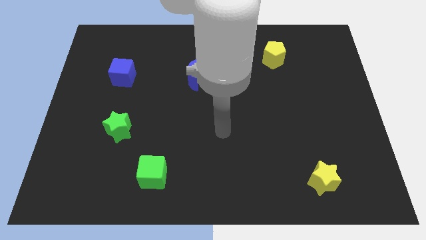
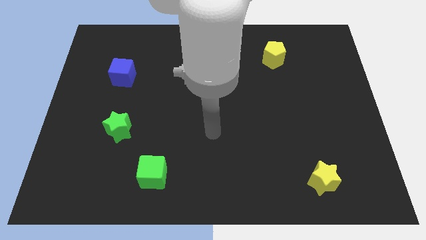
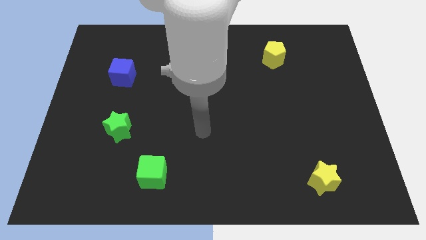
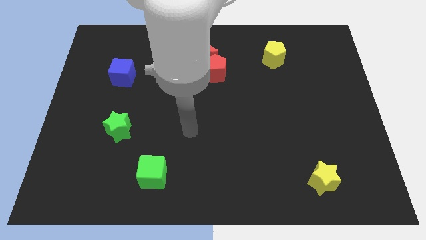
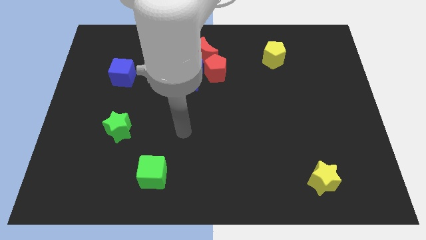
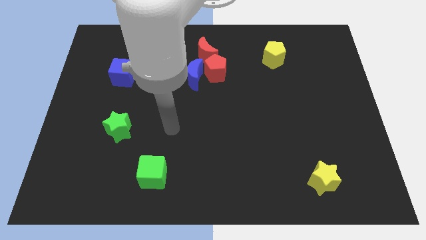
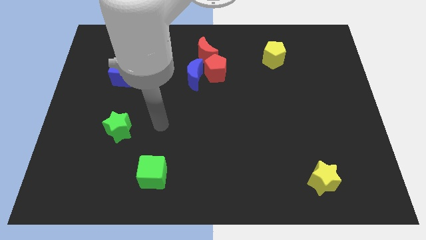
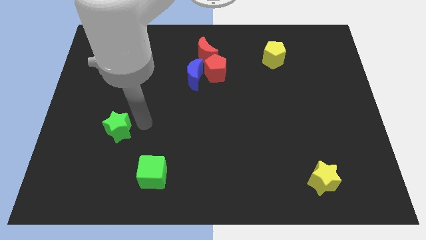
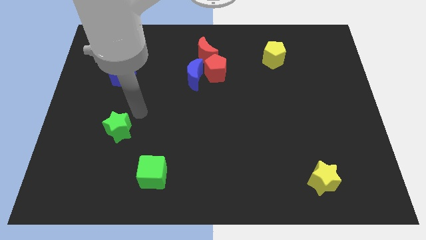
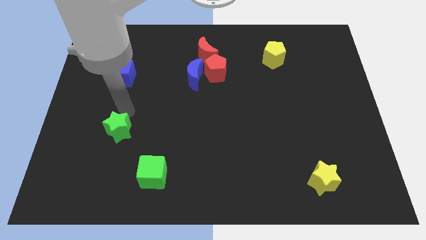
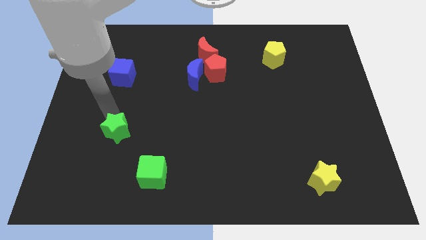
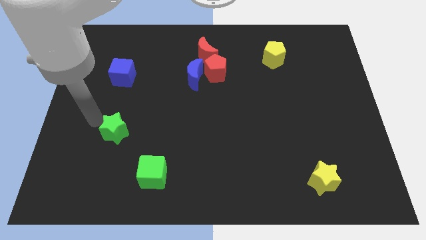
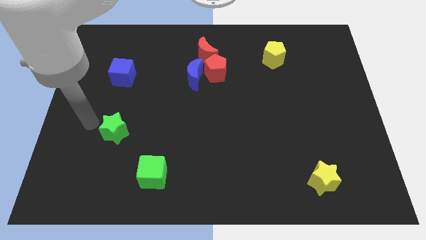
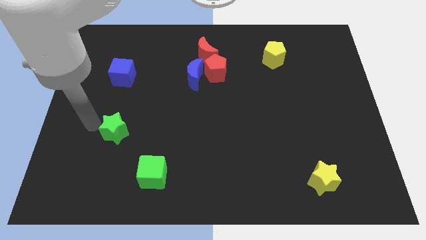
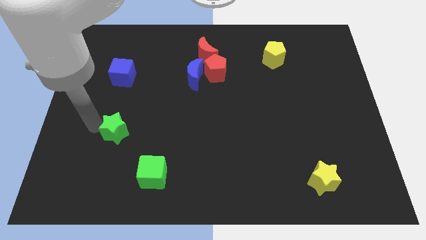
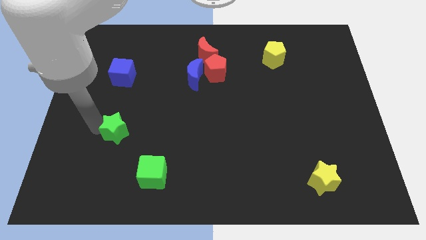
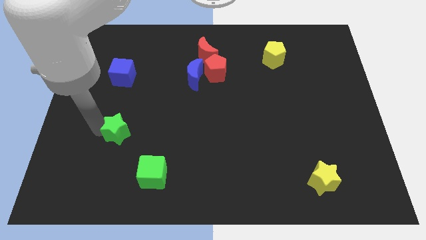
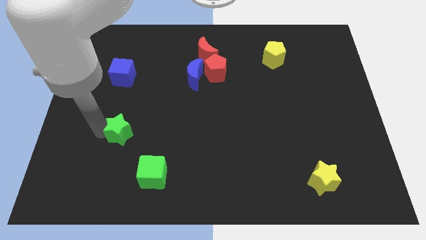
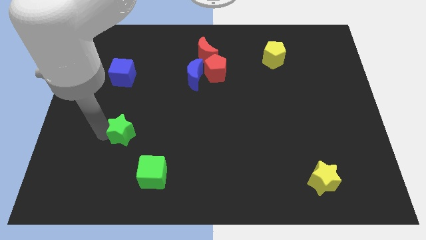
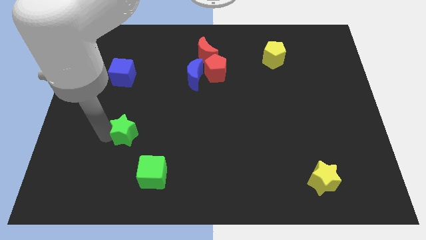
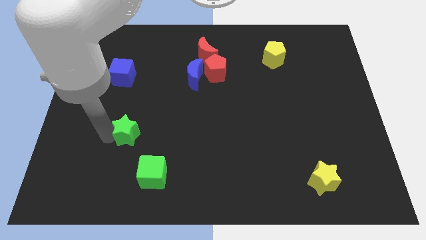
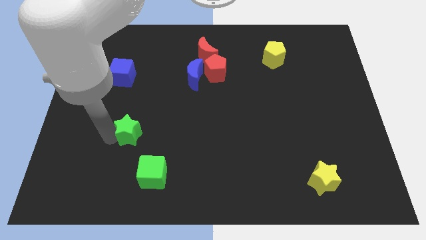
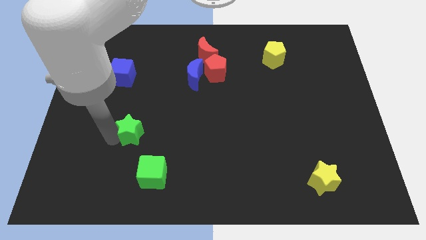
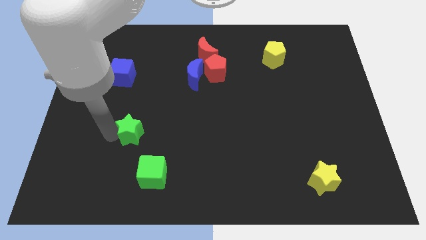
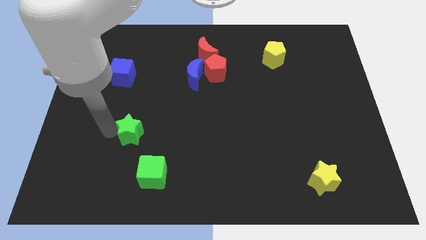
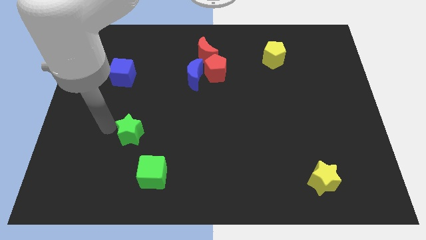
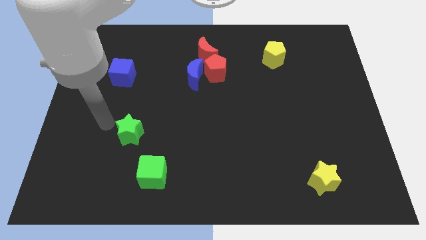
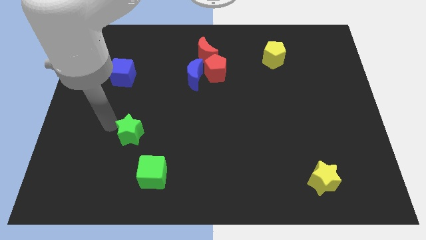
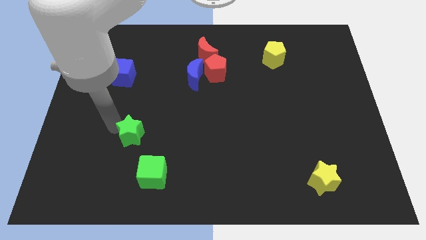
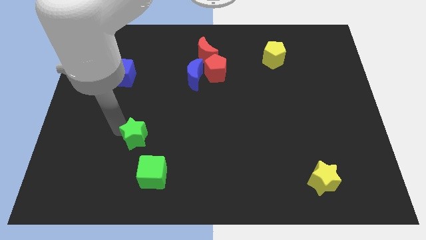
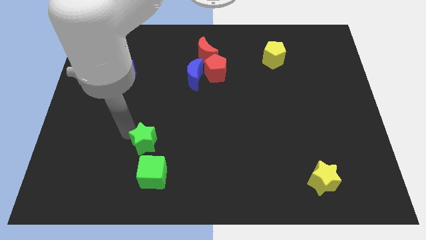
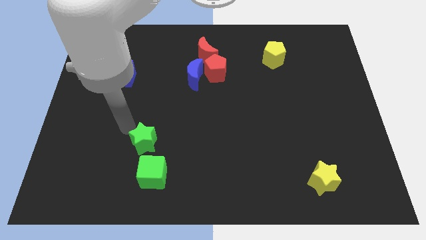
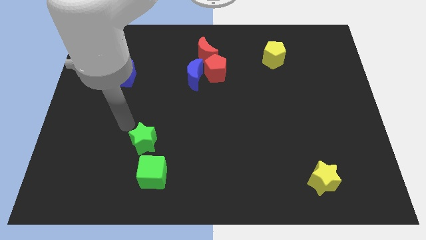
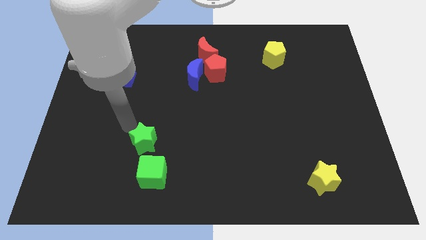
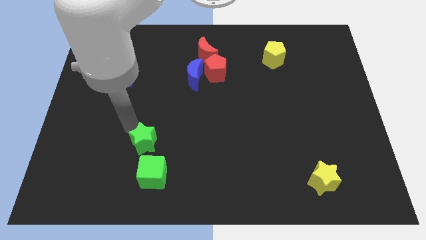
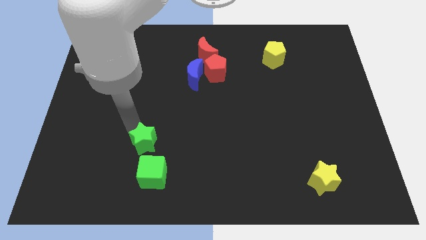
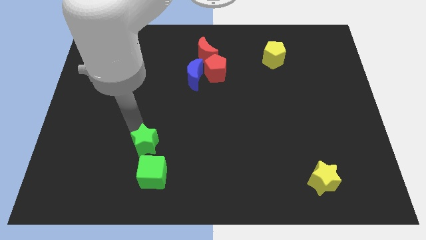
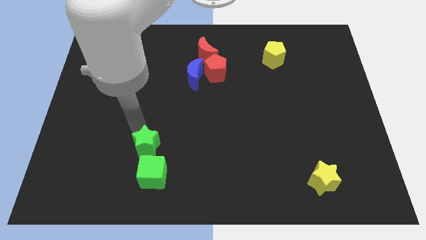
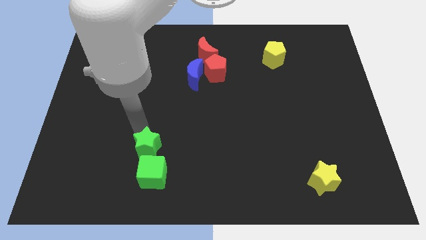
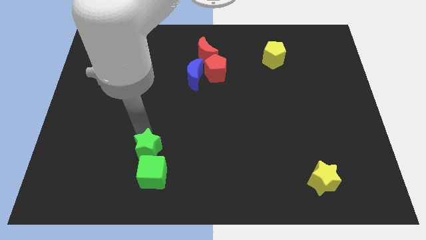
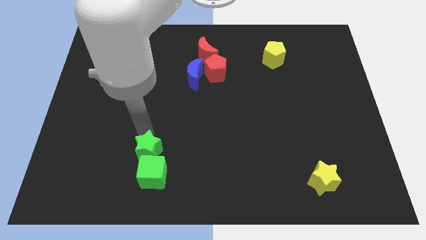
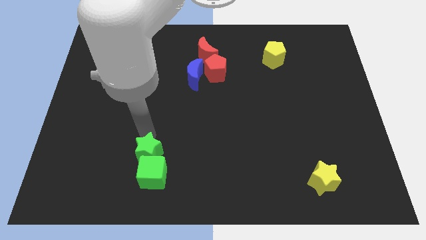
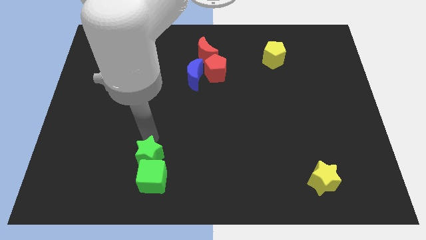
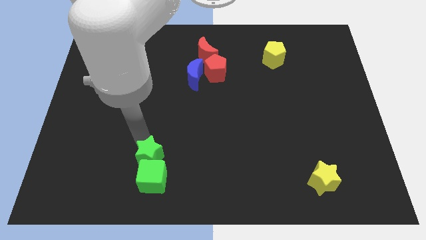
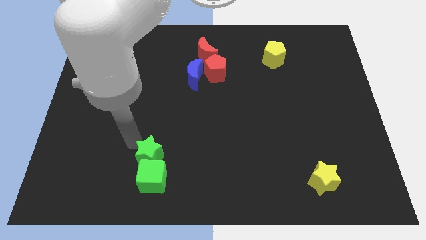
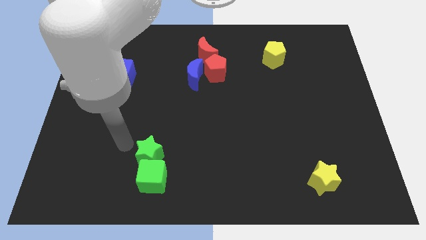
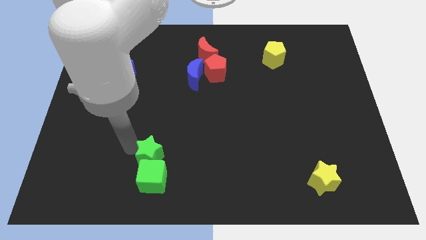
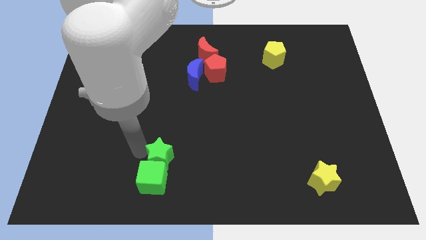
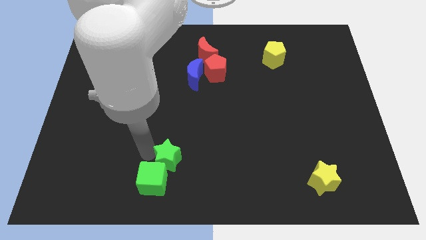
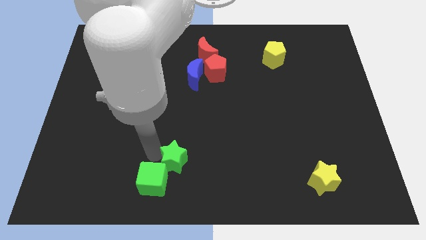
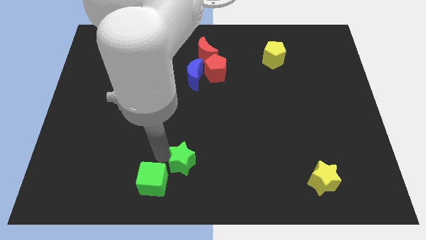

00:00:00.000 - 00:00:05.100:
move the green star to the bottom

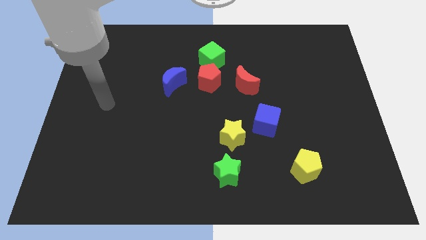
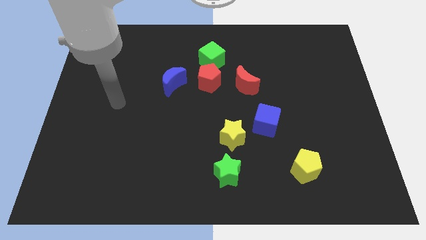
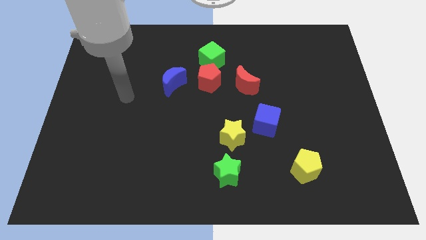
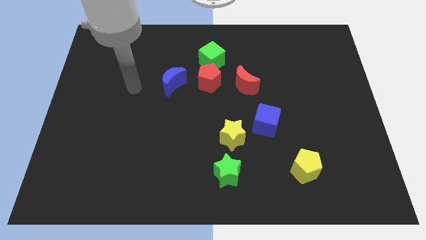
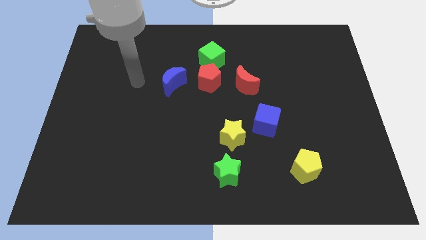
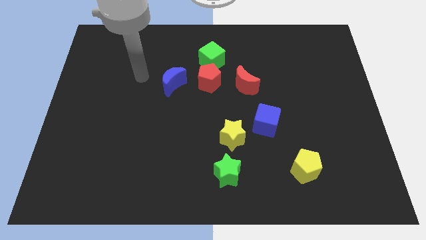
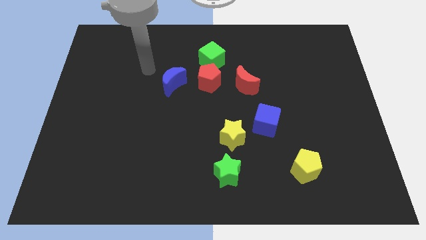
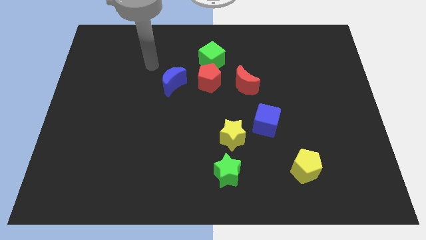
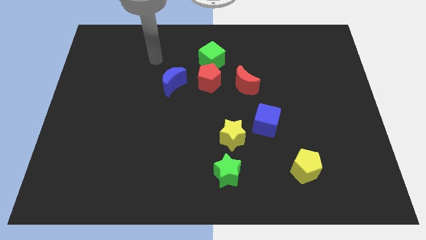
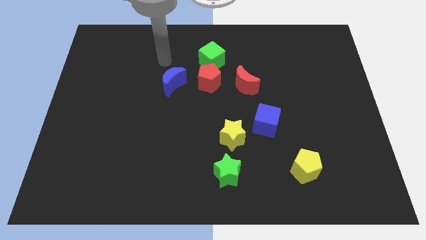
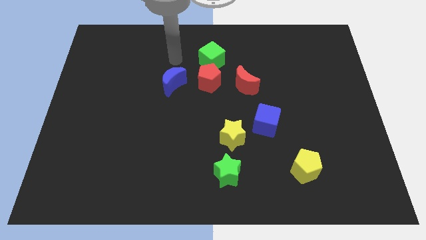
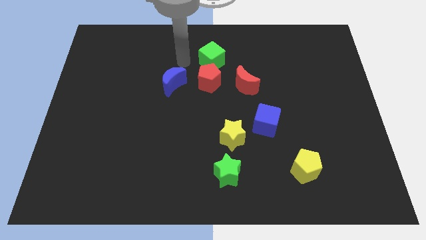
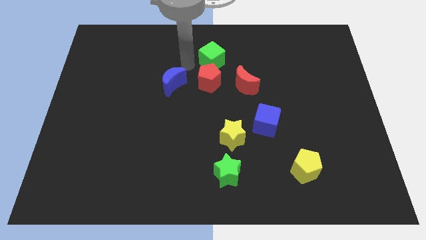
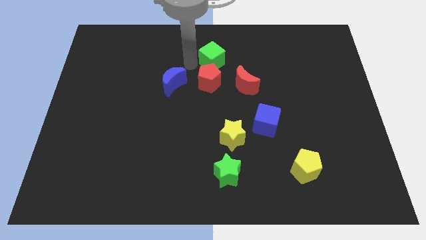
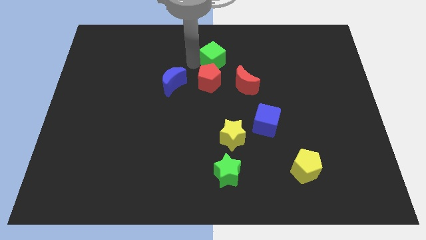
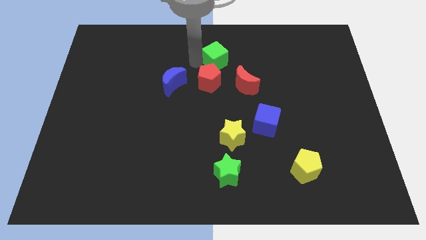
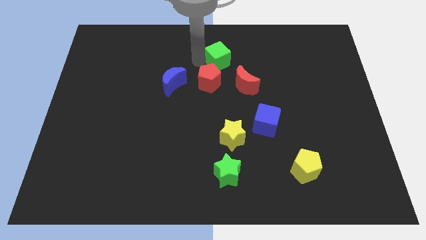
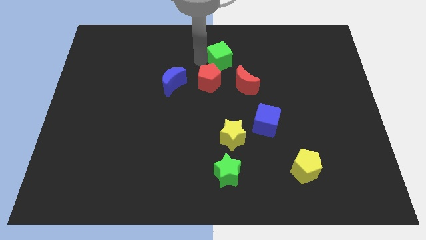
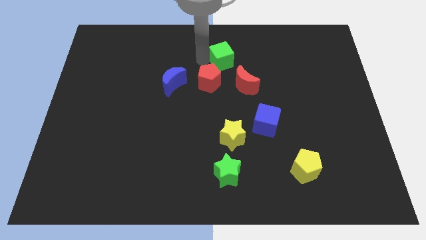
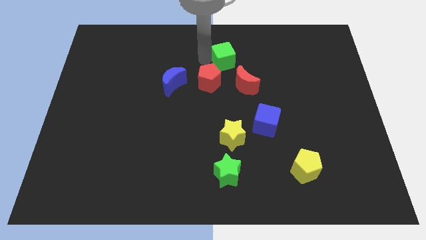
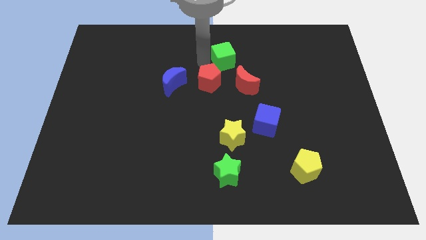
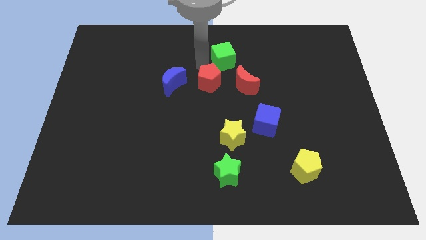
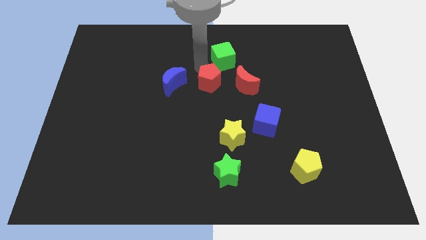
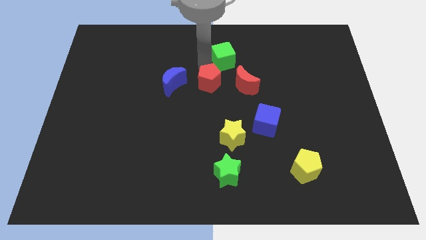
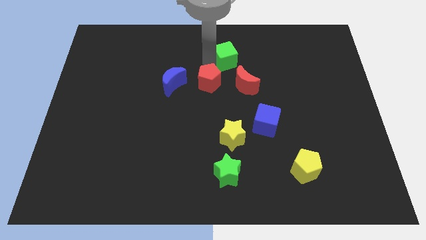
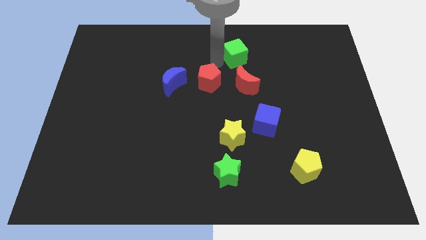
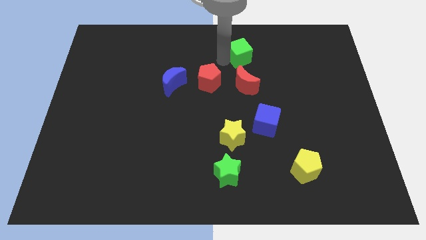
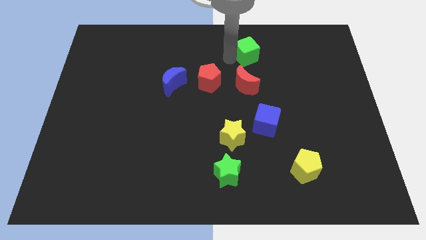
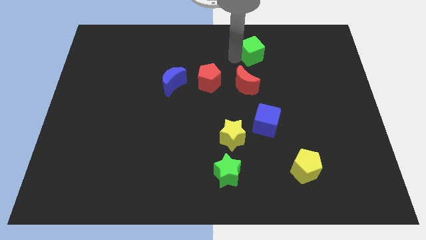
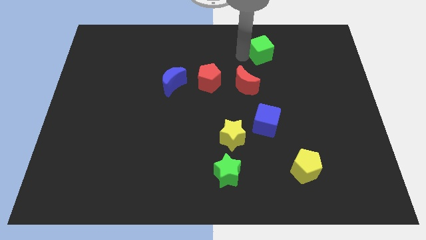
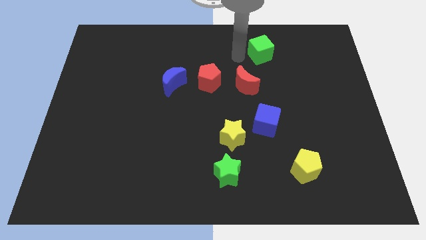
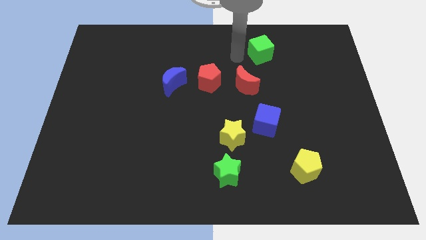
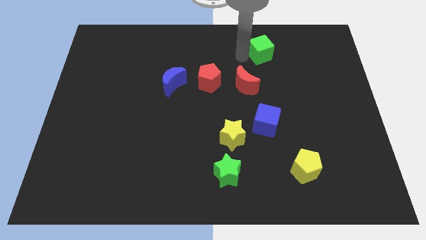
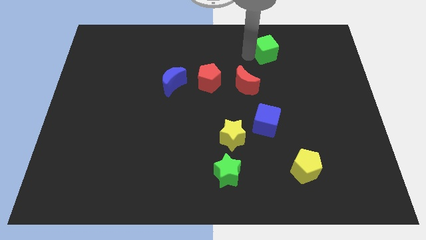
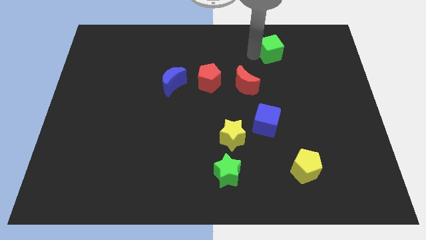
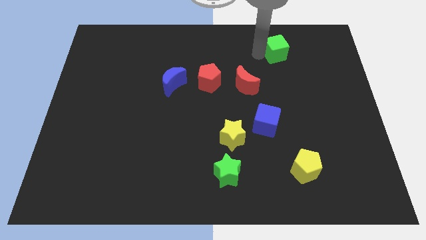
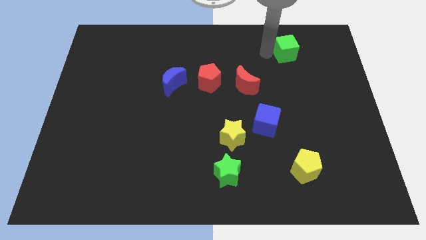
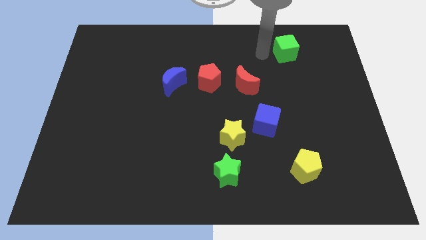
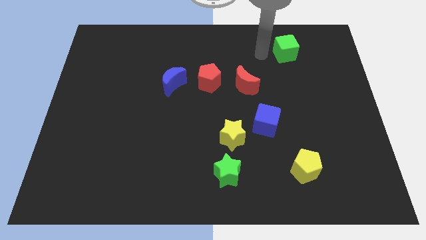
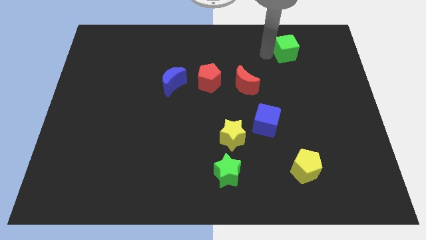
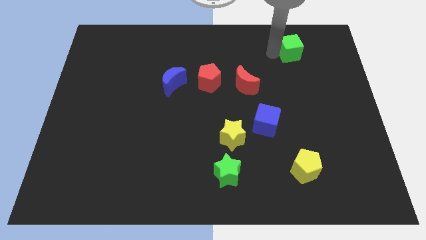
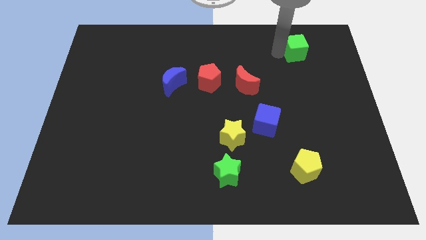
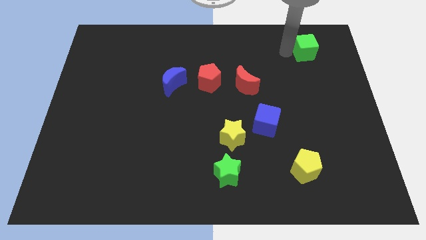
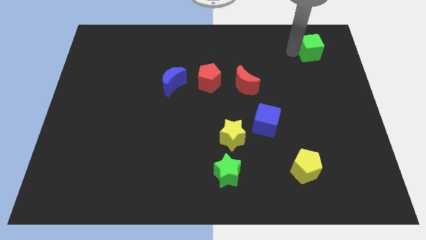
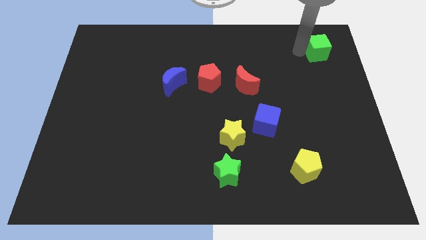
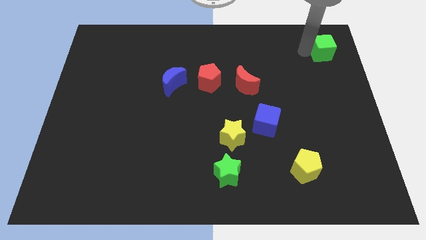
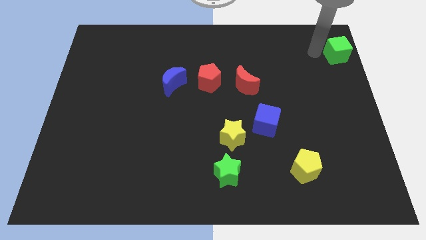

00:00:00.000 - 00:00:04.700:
push the green cube to the top right
